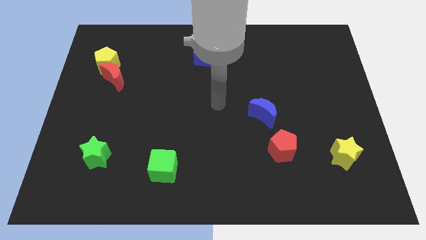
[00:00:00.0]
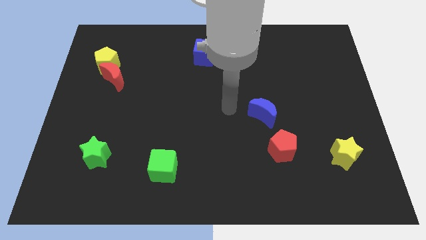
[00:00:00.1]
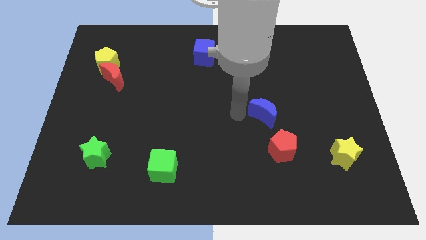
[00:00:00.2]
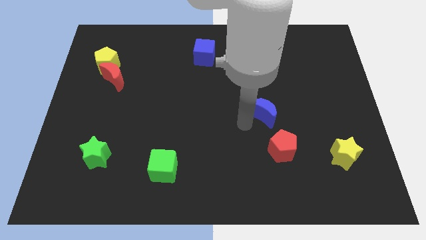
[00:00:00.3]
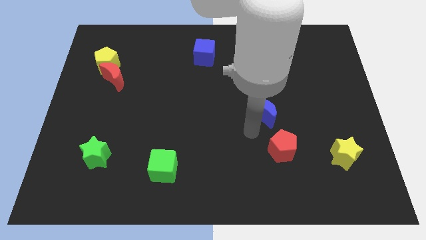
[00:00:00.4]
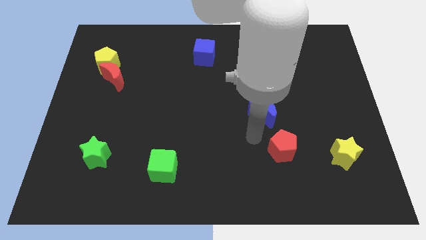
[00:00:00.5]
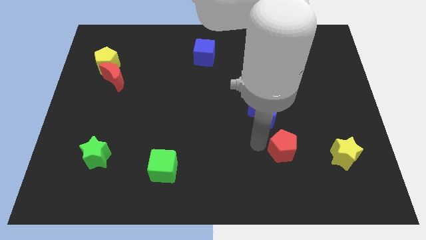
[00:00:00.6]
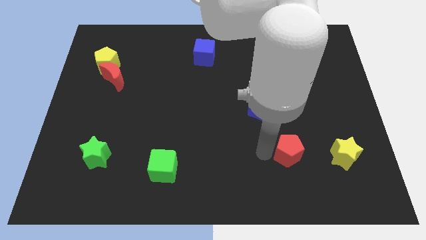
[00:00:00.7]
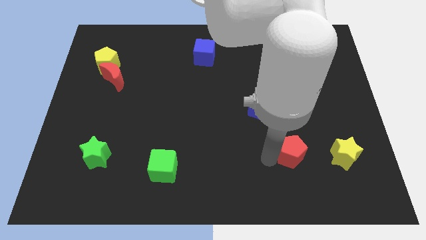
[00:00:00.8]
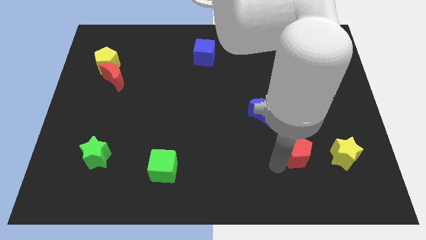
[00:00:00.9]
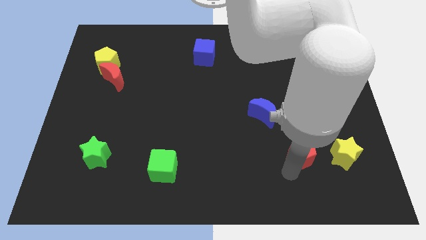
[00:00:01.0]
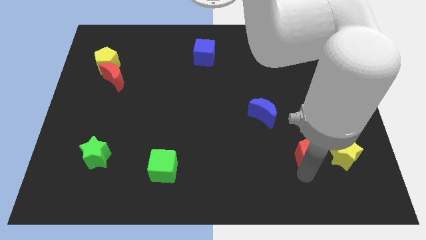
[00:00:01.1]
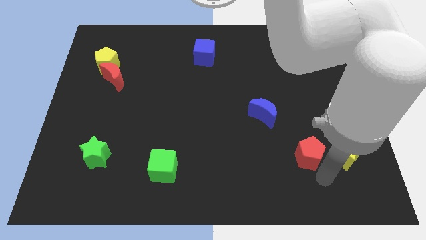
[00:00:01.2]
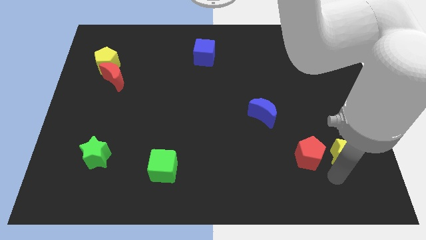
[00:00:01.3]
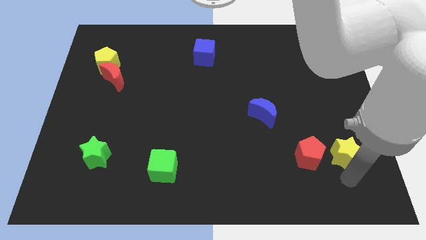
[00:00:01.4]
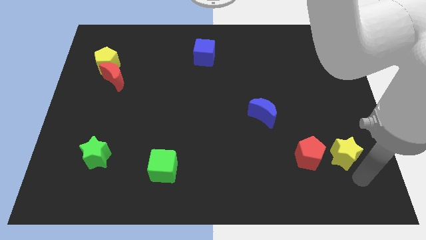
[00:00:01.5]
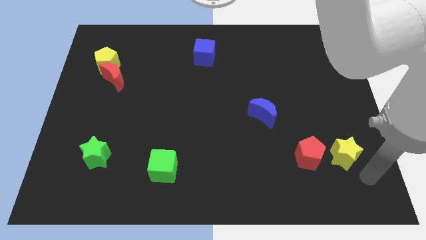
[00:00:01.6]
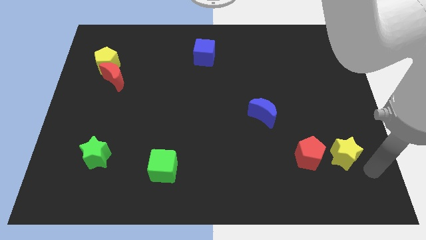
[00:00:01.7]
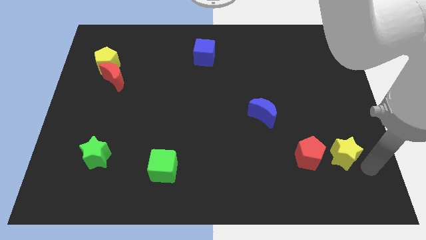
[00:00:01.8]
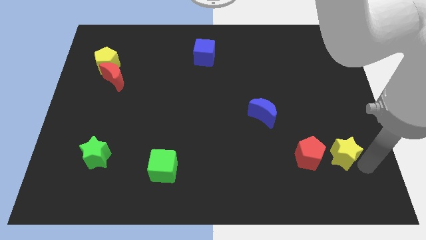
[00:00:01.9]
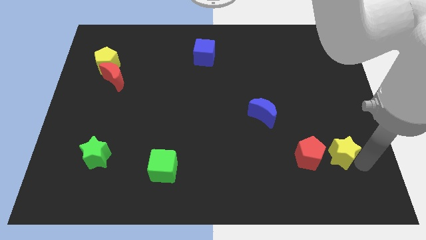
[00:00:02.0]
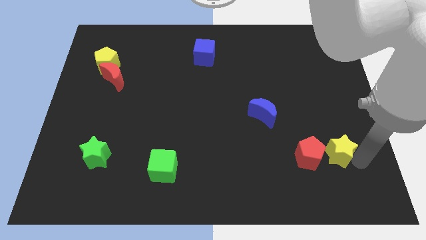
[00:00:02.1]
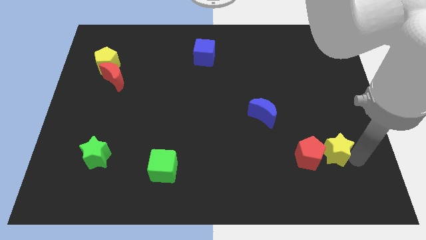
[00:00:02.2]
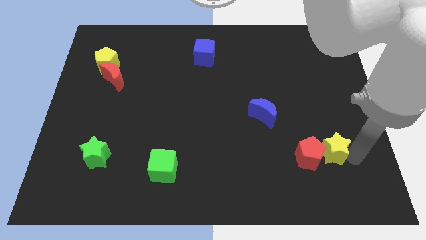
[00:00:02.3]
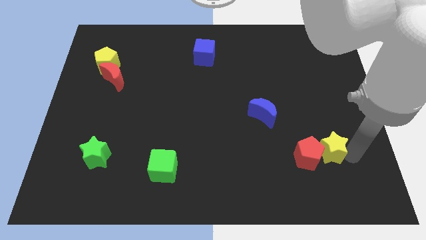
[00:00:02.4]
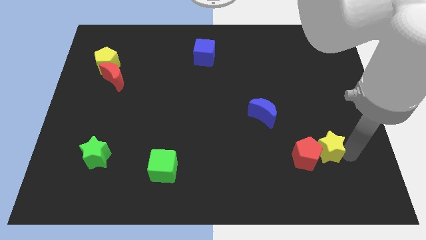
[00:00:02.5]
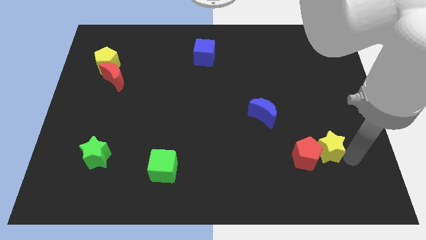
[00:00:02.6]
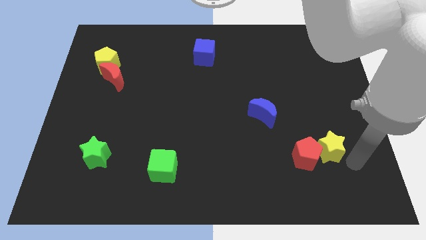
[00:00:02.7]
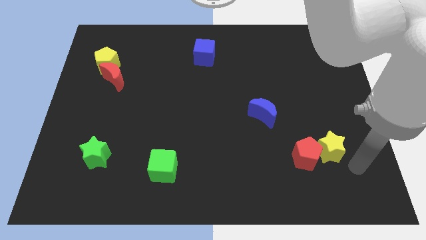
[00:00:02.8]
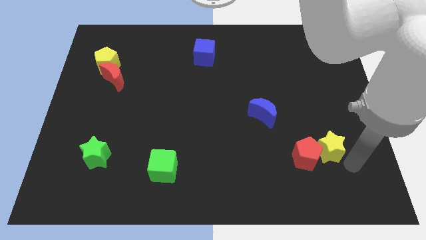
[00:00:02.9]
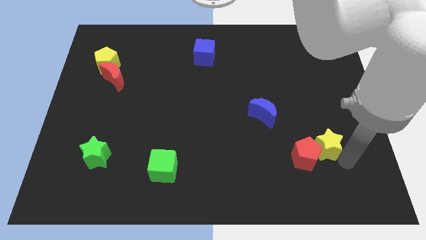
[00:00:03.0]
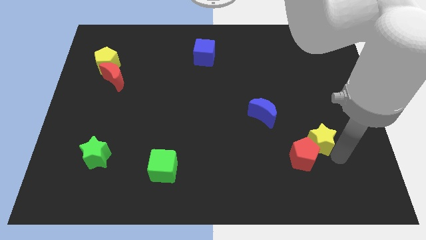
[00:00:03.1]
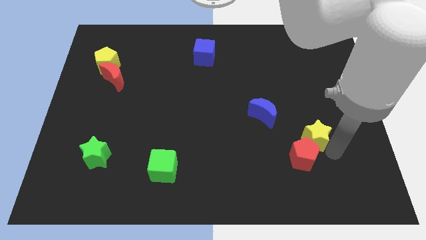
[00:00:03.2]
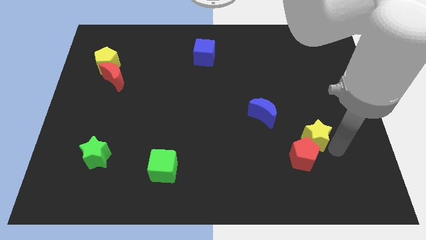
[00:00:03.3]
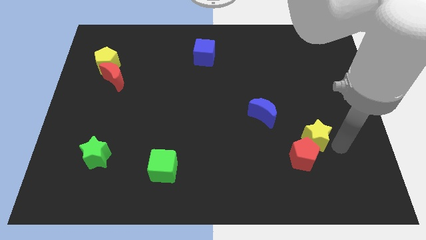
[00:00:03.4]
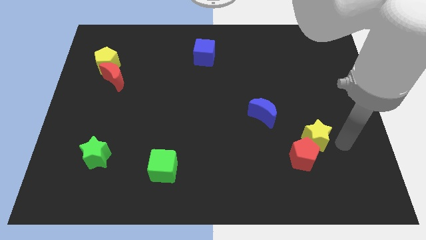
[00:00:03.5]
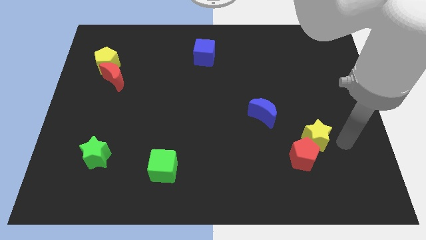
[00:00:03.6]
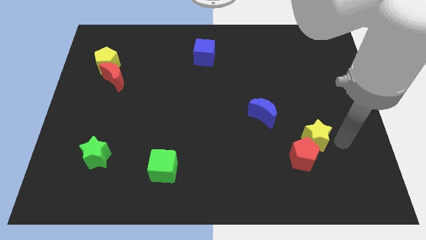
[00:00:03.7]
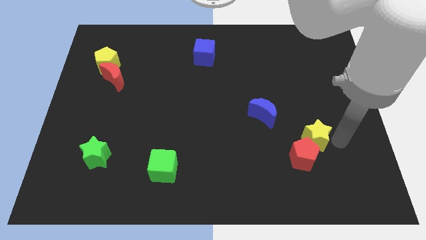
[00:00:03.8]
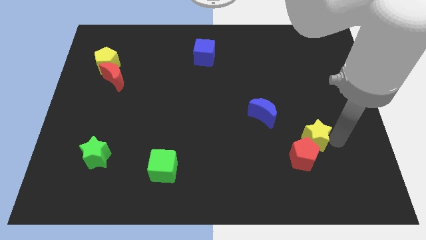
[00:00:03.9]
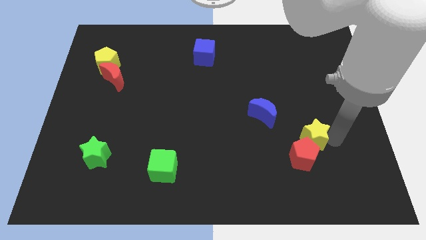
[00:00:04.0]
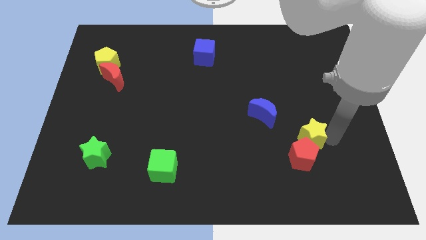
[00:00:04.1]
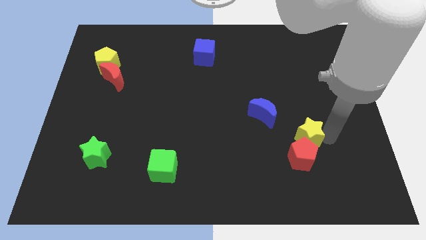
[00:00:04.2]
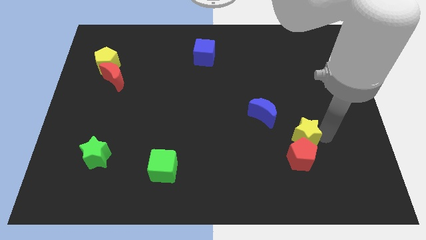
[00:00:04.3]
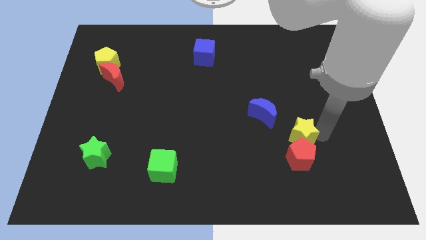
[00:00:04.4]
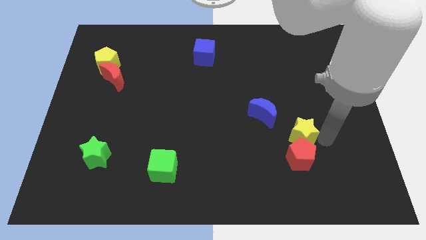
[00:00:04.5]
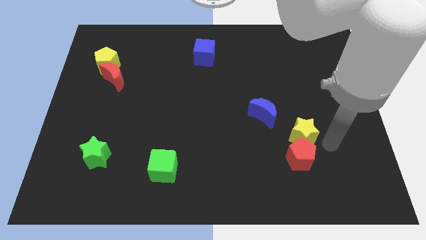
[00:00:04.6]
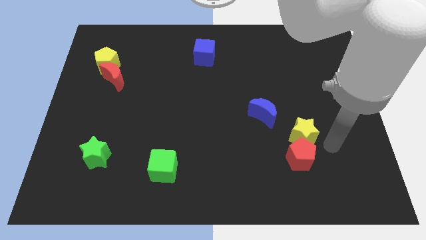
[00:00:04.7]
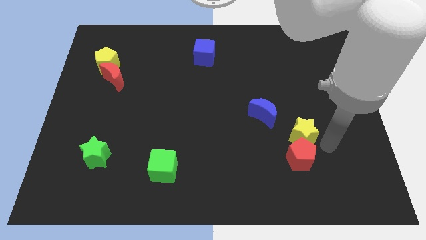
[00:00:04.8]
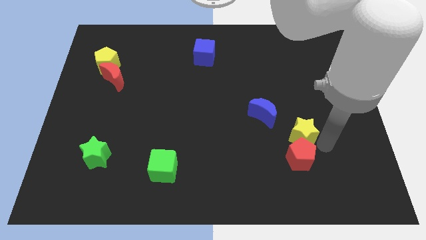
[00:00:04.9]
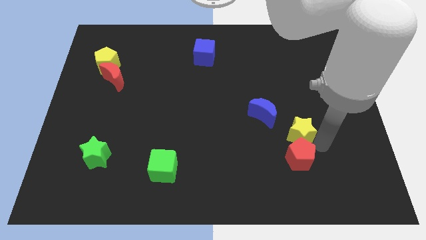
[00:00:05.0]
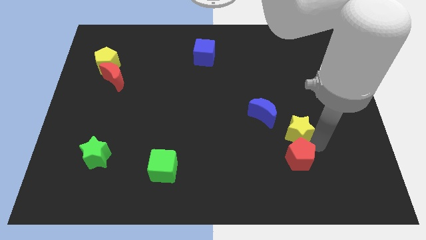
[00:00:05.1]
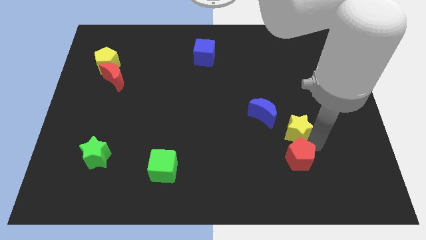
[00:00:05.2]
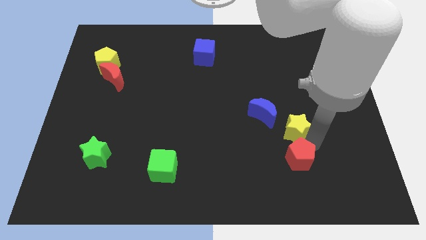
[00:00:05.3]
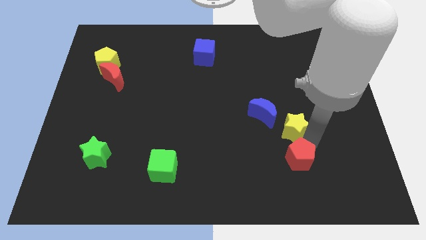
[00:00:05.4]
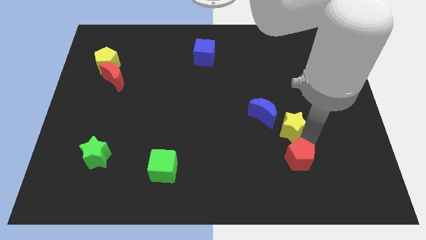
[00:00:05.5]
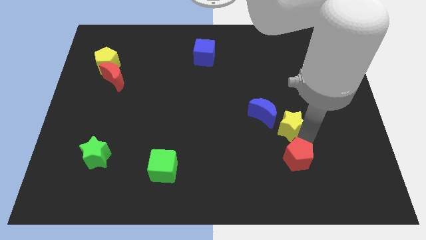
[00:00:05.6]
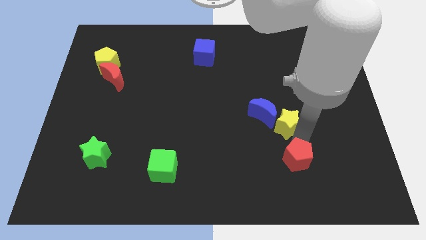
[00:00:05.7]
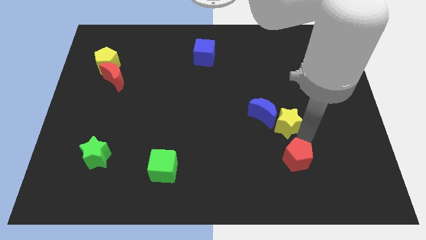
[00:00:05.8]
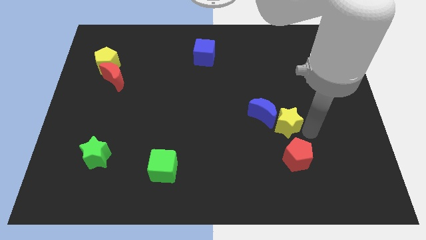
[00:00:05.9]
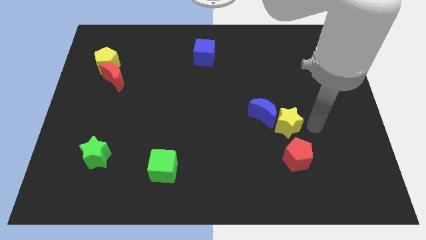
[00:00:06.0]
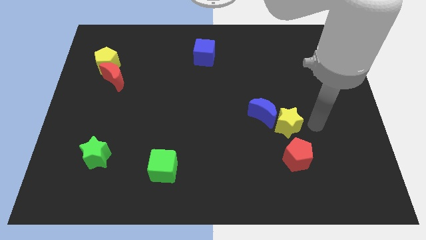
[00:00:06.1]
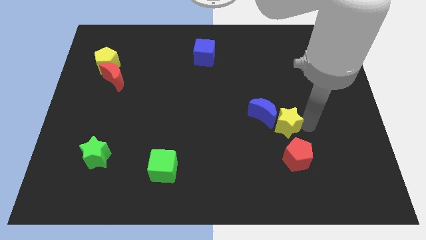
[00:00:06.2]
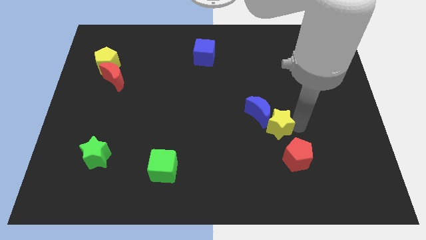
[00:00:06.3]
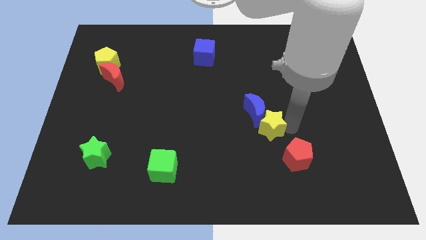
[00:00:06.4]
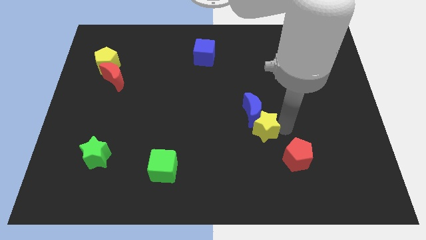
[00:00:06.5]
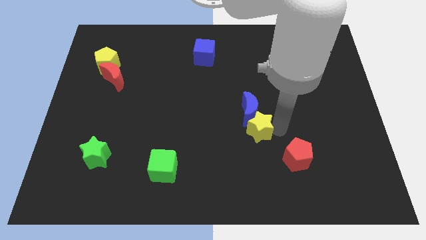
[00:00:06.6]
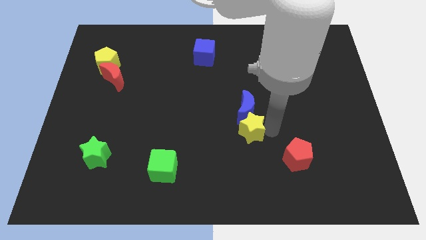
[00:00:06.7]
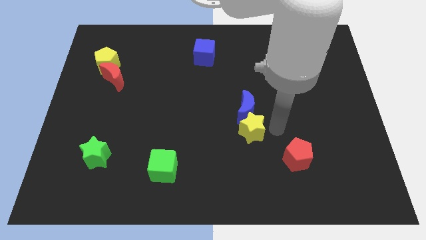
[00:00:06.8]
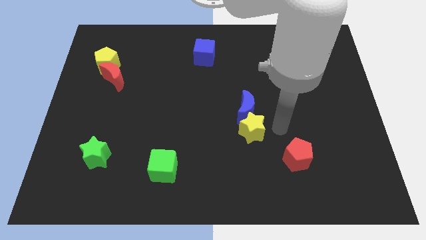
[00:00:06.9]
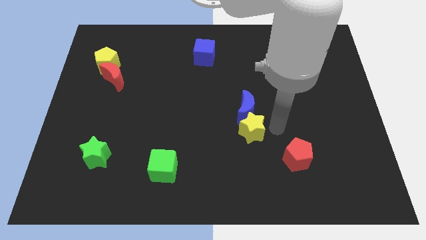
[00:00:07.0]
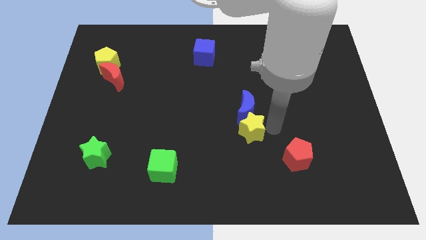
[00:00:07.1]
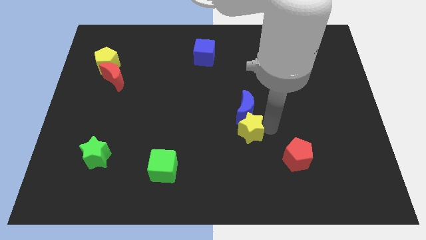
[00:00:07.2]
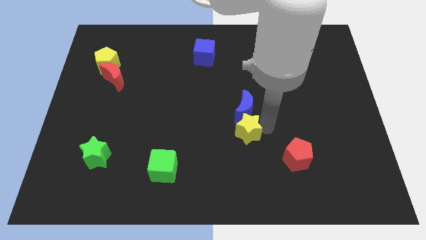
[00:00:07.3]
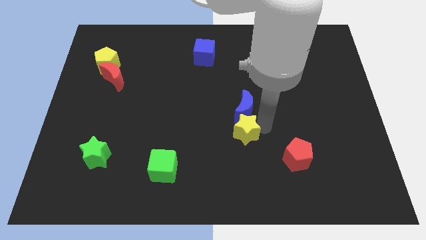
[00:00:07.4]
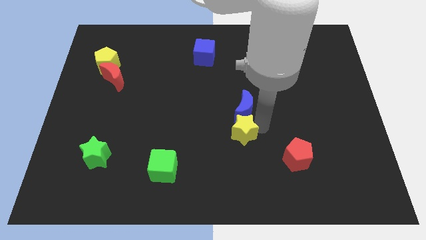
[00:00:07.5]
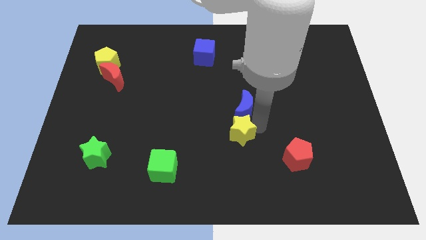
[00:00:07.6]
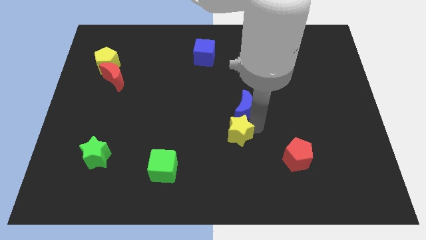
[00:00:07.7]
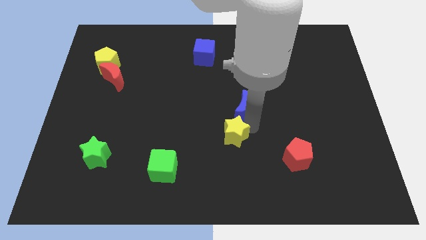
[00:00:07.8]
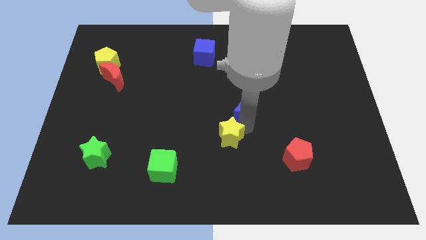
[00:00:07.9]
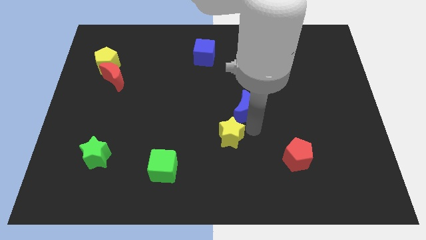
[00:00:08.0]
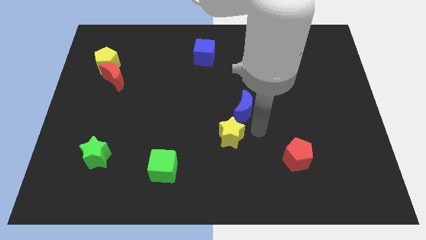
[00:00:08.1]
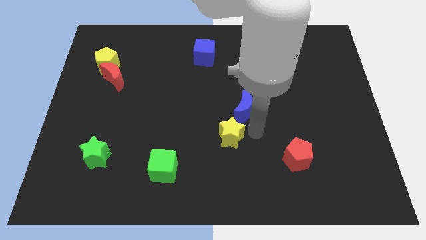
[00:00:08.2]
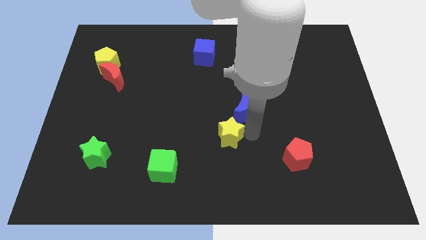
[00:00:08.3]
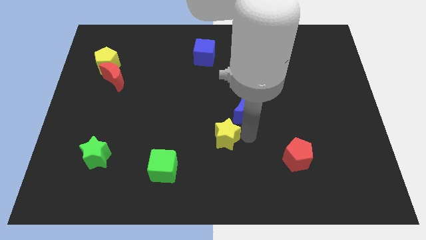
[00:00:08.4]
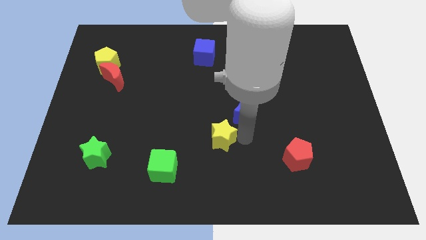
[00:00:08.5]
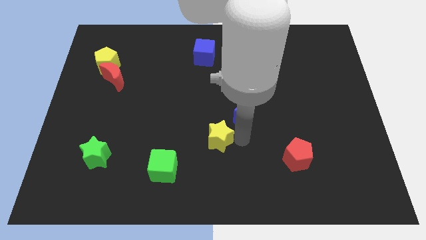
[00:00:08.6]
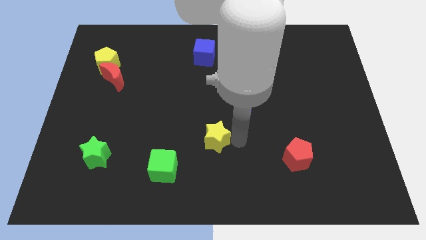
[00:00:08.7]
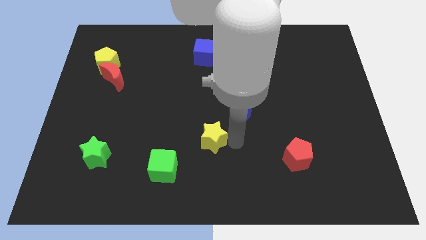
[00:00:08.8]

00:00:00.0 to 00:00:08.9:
put the yellow star to the top right of the green cube
